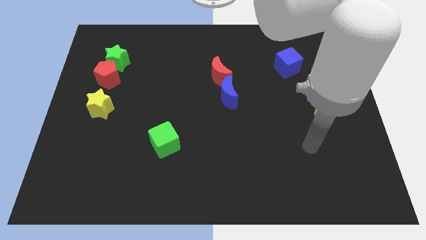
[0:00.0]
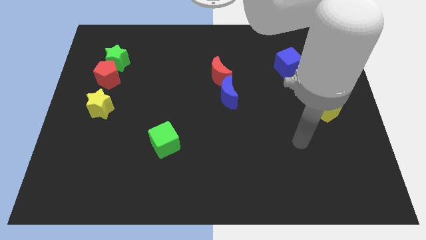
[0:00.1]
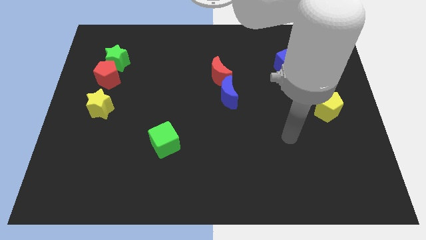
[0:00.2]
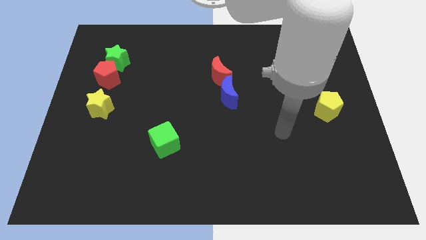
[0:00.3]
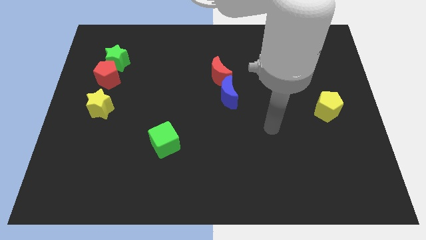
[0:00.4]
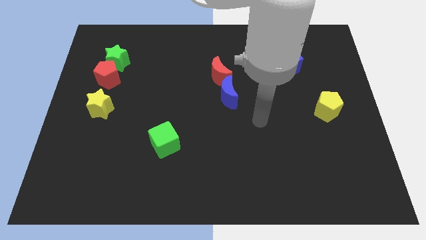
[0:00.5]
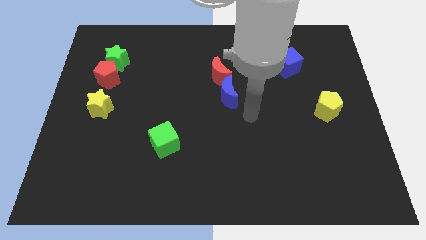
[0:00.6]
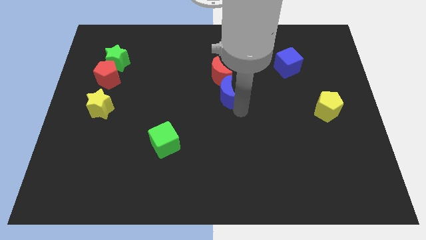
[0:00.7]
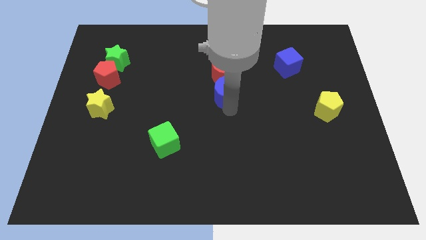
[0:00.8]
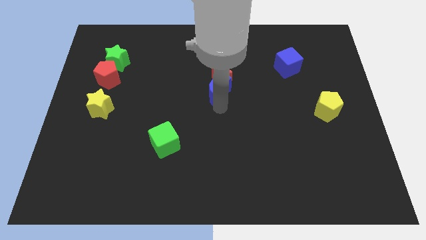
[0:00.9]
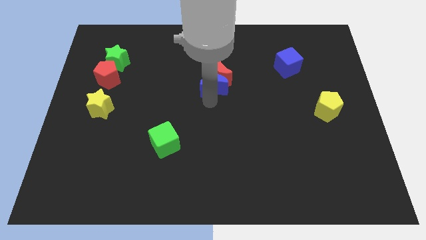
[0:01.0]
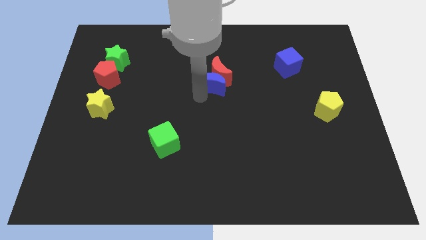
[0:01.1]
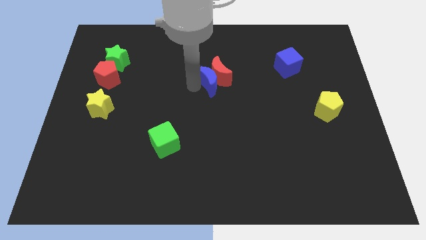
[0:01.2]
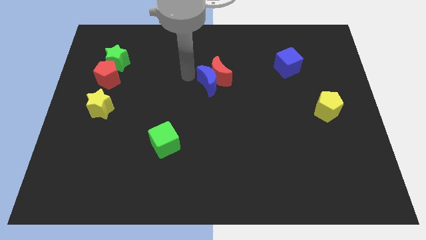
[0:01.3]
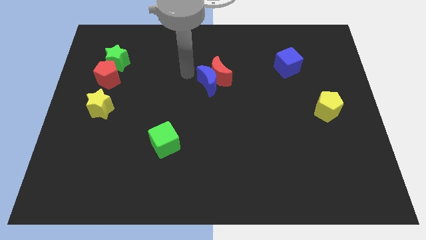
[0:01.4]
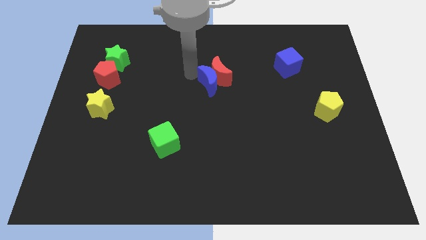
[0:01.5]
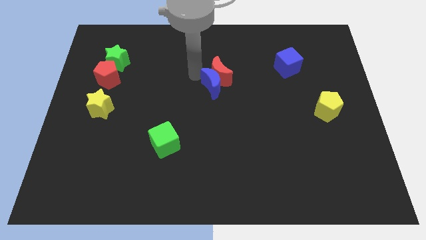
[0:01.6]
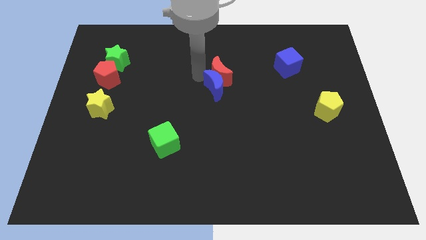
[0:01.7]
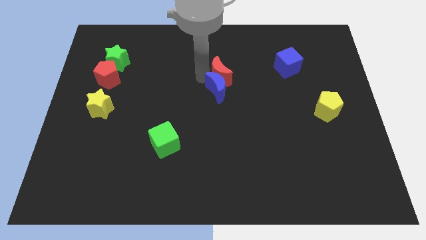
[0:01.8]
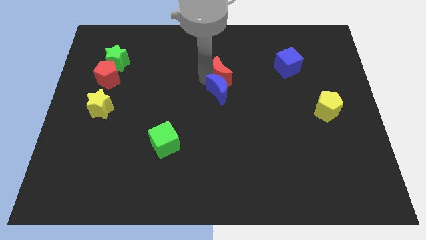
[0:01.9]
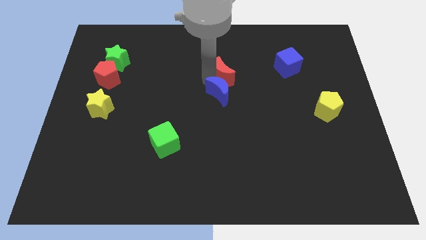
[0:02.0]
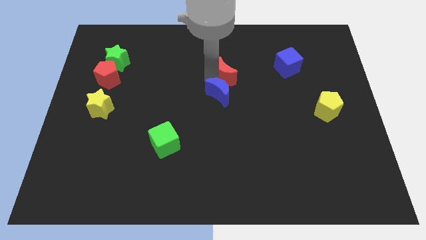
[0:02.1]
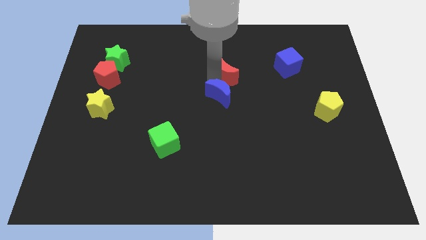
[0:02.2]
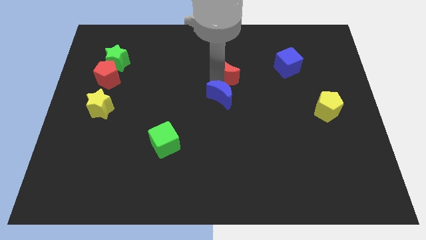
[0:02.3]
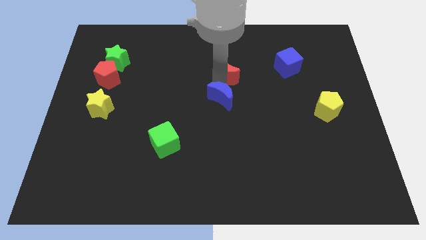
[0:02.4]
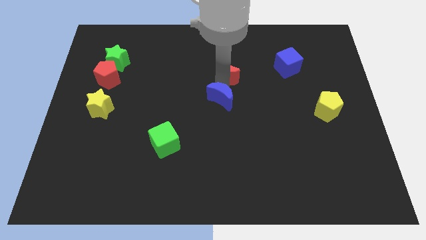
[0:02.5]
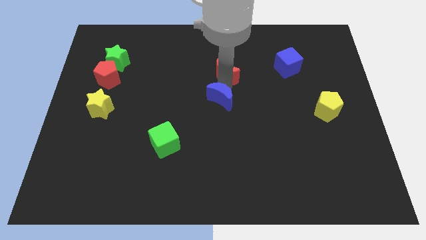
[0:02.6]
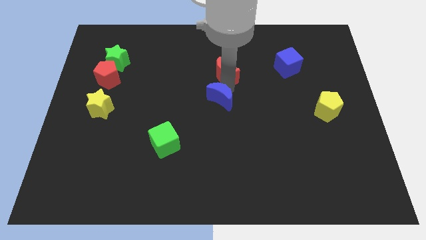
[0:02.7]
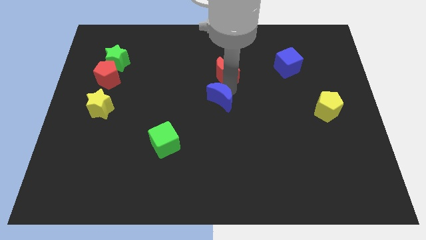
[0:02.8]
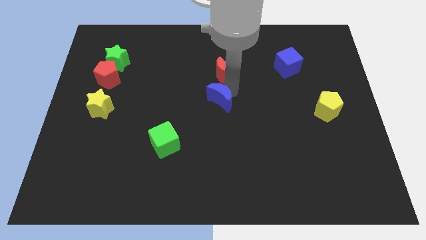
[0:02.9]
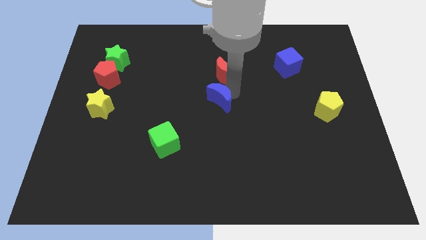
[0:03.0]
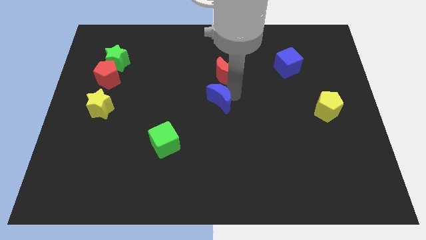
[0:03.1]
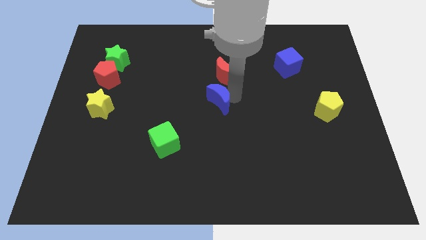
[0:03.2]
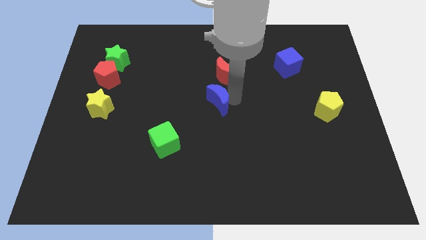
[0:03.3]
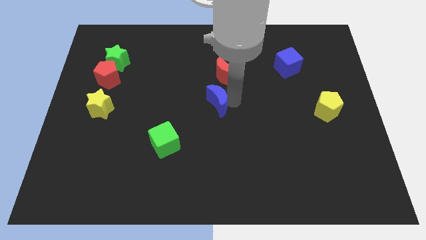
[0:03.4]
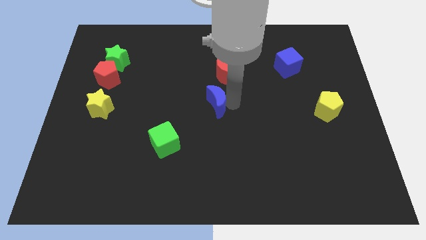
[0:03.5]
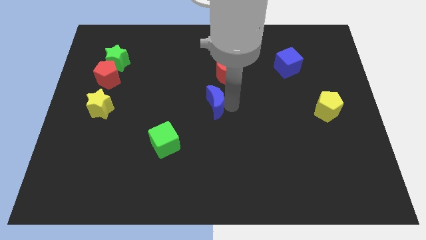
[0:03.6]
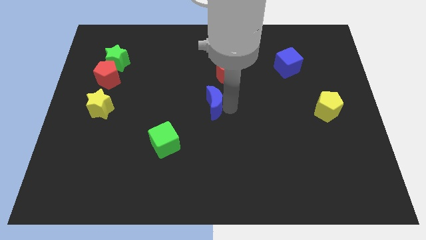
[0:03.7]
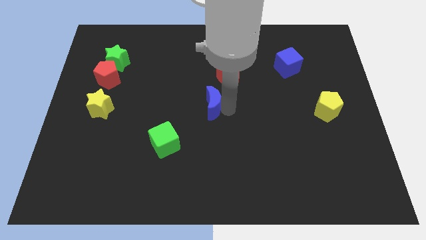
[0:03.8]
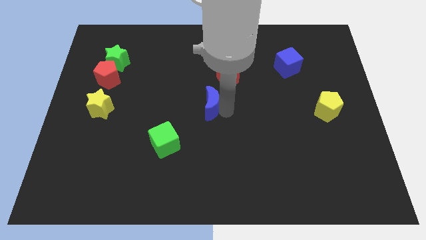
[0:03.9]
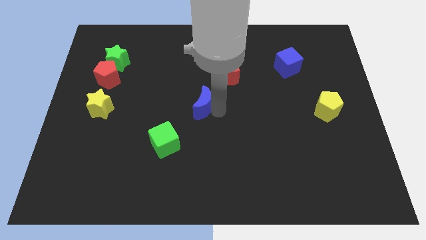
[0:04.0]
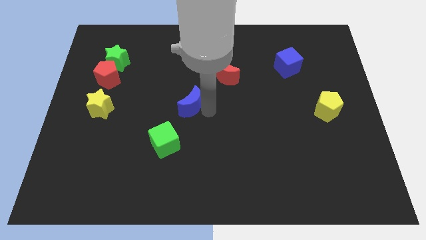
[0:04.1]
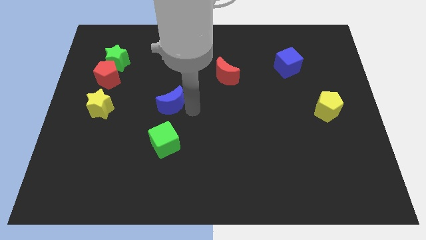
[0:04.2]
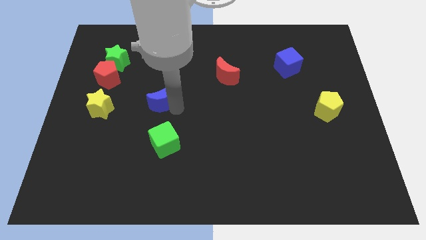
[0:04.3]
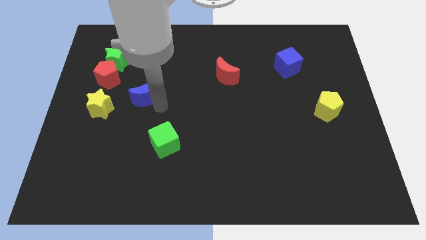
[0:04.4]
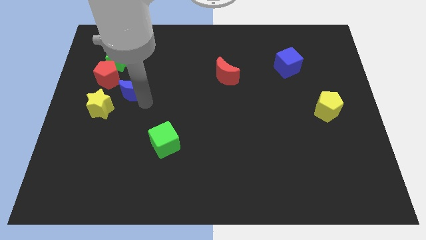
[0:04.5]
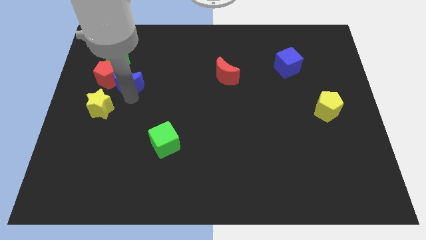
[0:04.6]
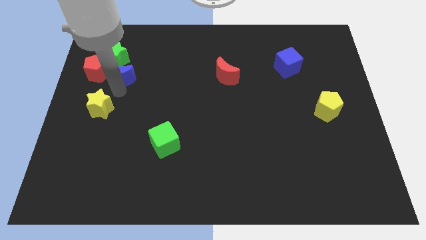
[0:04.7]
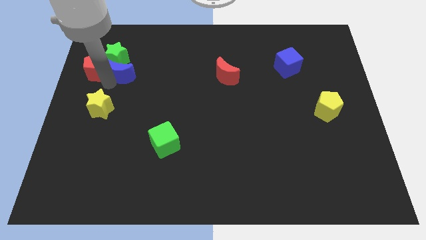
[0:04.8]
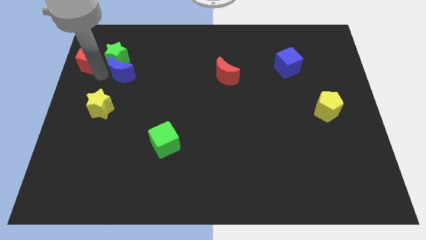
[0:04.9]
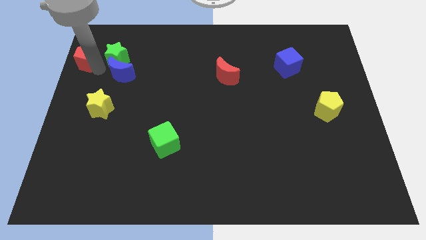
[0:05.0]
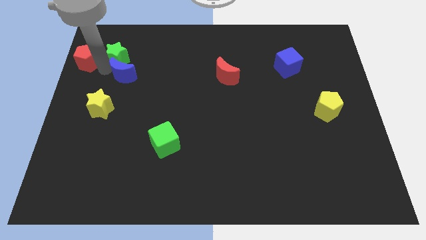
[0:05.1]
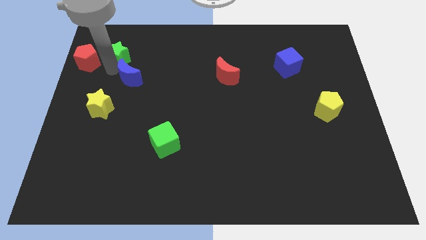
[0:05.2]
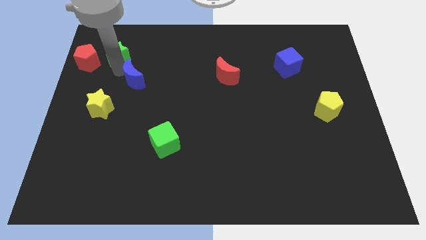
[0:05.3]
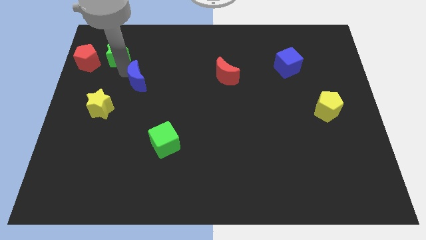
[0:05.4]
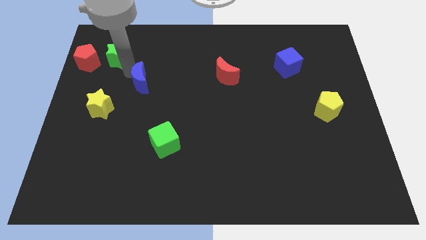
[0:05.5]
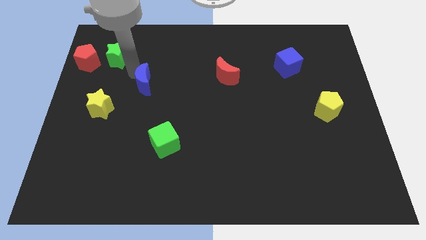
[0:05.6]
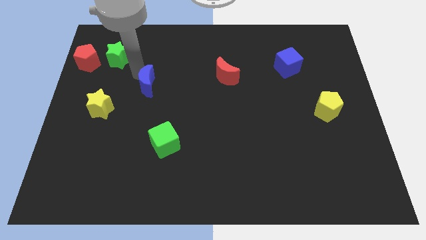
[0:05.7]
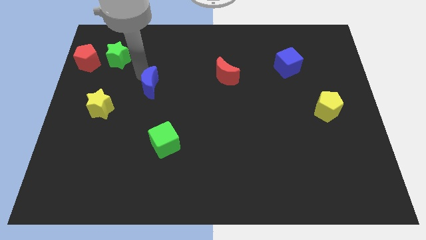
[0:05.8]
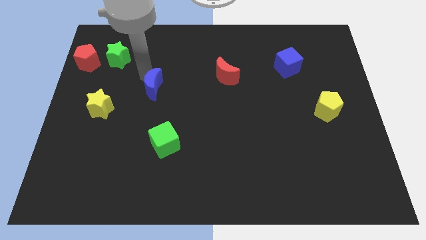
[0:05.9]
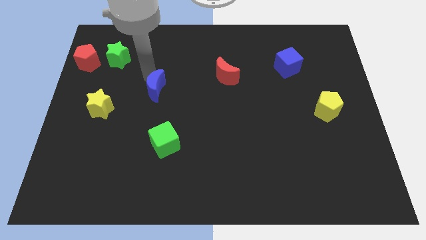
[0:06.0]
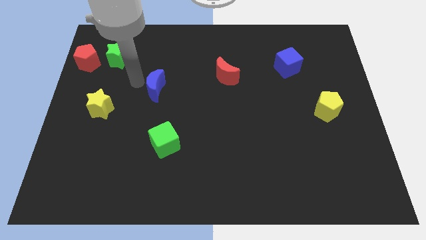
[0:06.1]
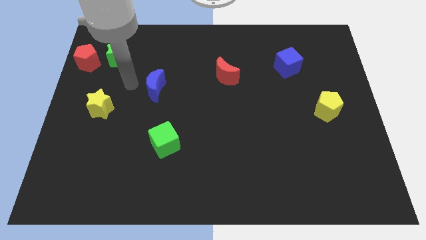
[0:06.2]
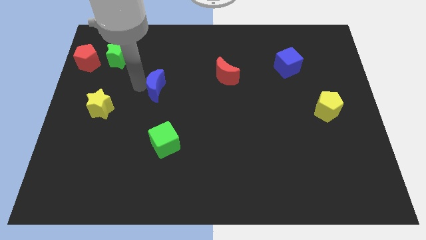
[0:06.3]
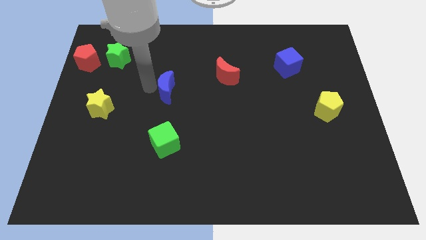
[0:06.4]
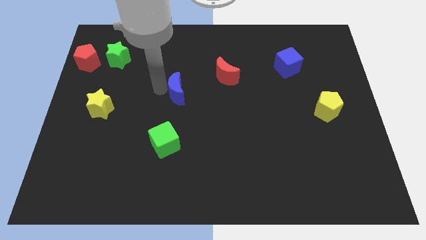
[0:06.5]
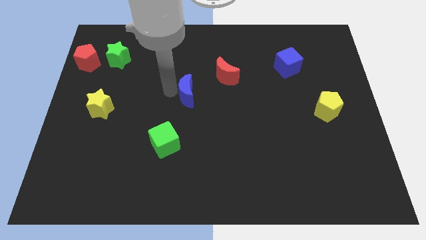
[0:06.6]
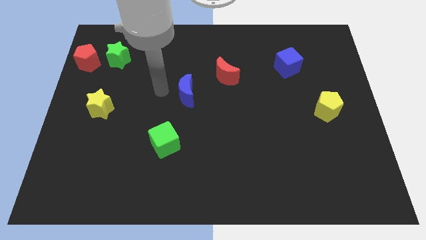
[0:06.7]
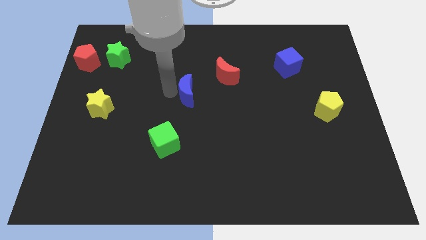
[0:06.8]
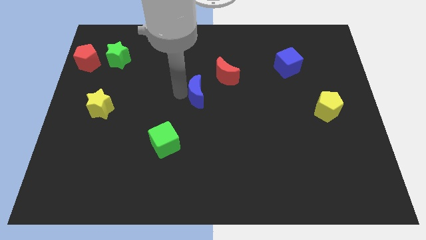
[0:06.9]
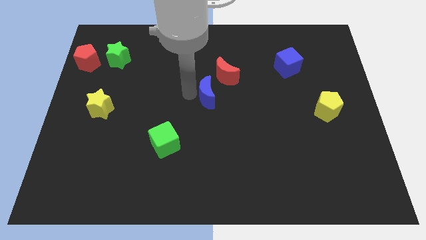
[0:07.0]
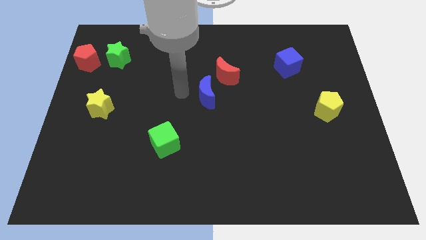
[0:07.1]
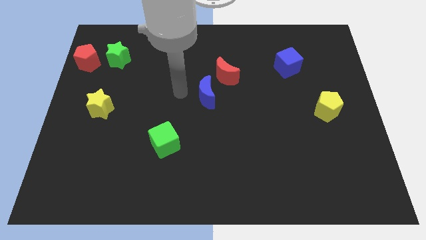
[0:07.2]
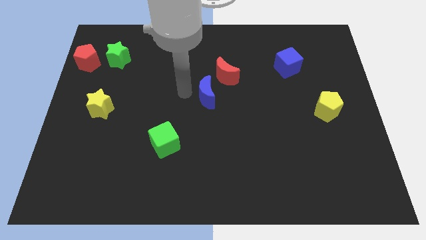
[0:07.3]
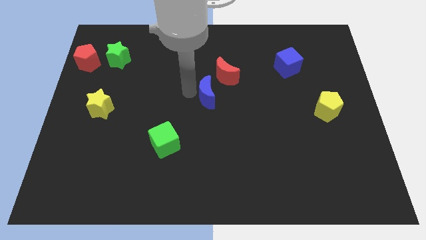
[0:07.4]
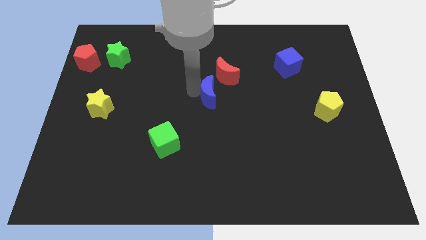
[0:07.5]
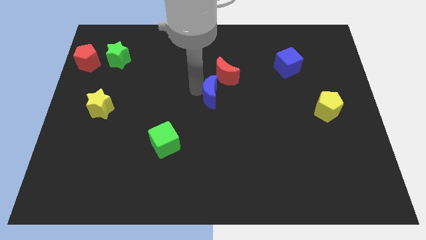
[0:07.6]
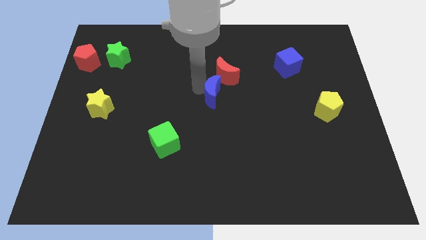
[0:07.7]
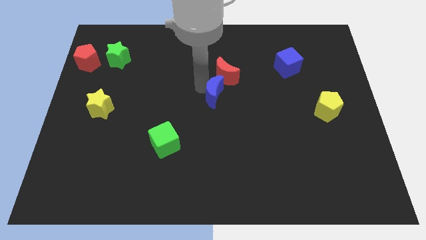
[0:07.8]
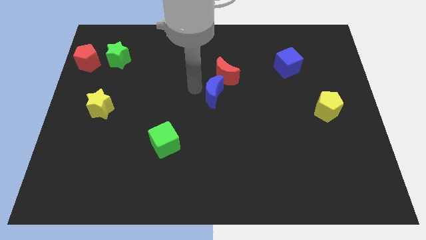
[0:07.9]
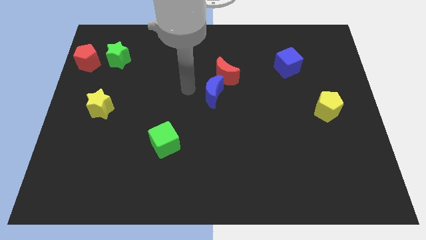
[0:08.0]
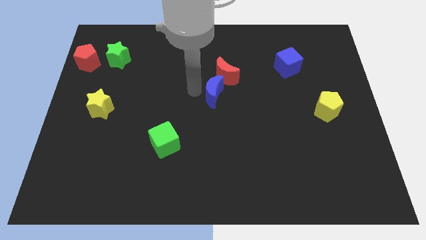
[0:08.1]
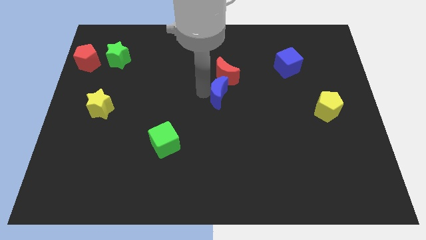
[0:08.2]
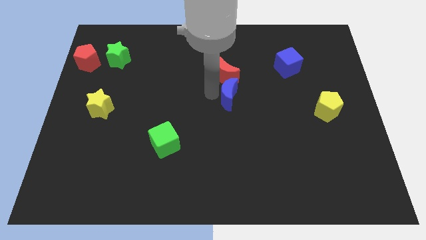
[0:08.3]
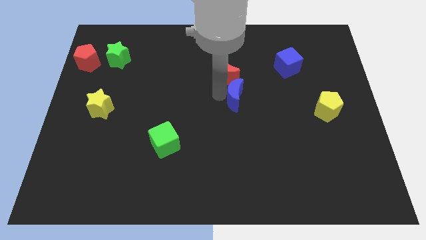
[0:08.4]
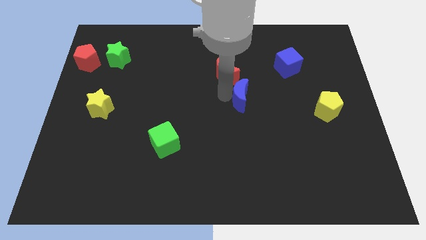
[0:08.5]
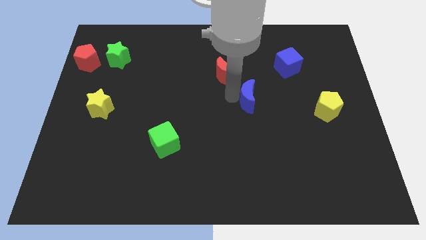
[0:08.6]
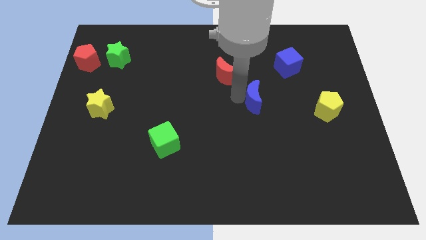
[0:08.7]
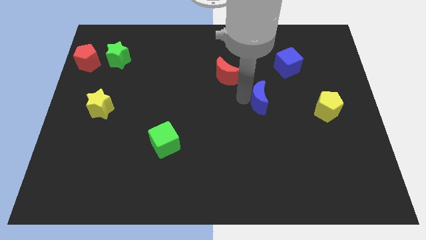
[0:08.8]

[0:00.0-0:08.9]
put the blue moon just left of the yellow pentagon
